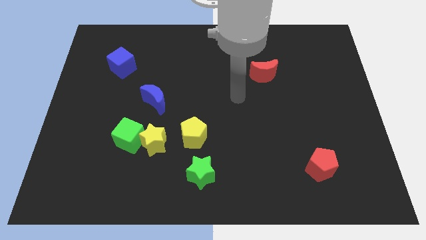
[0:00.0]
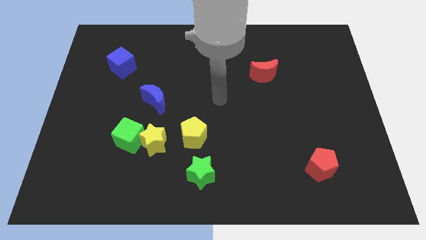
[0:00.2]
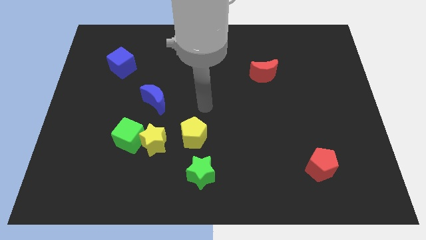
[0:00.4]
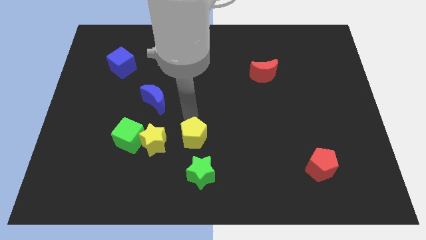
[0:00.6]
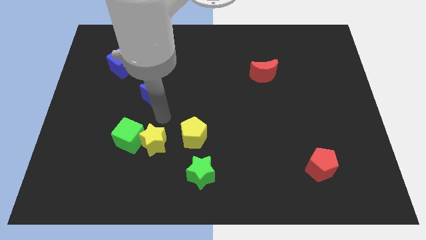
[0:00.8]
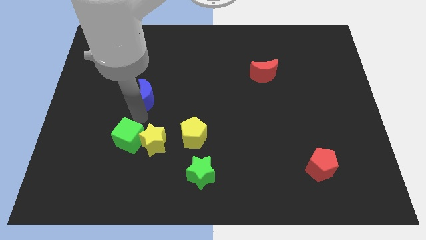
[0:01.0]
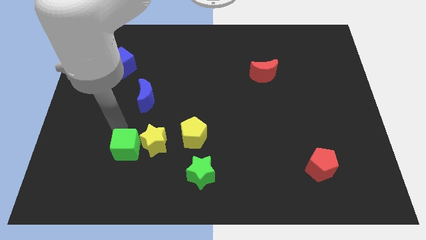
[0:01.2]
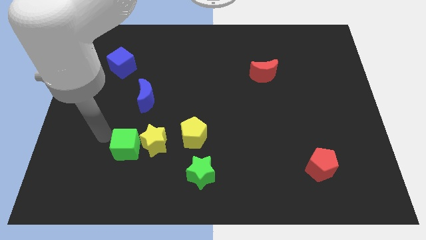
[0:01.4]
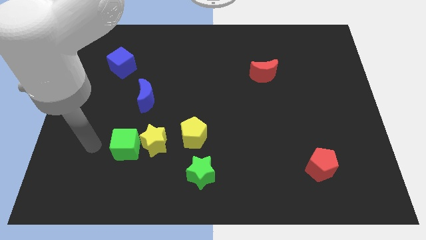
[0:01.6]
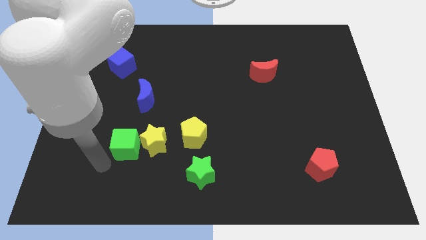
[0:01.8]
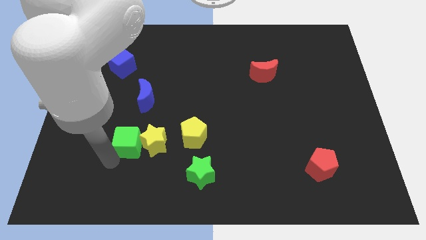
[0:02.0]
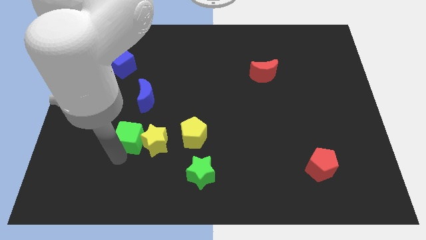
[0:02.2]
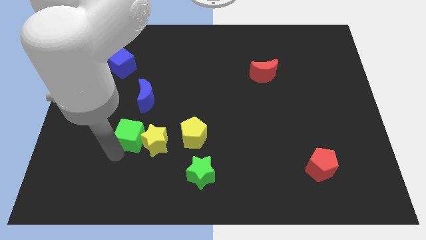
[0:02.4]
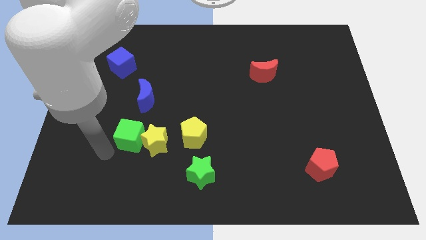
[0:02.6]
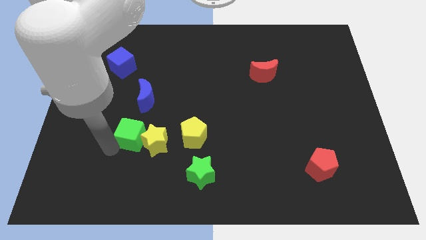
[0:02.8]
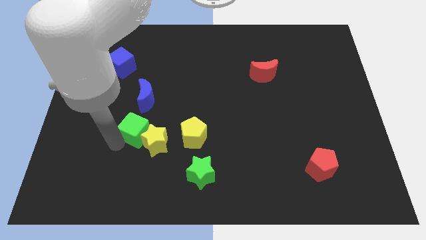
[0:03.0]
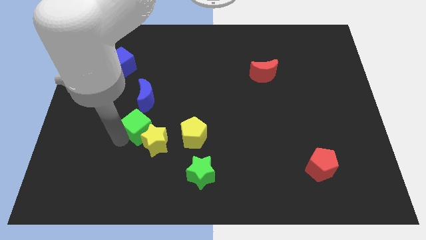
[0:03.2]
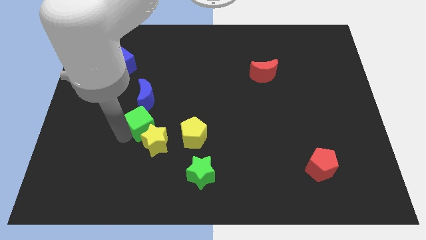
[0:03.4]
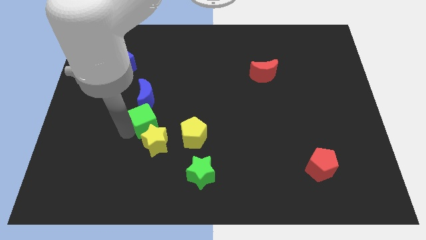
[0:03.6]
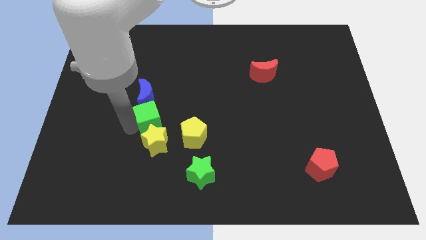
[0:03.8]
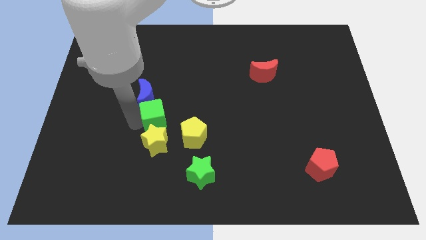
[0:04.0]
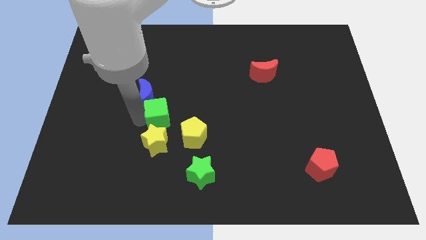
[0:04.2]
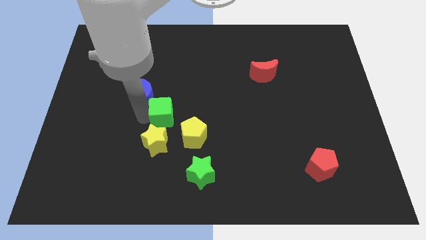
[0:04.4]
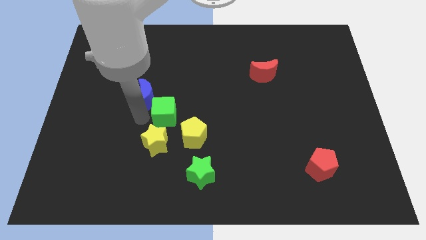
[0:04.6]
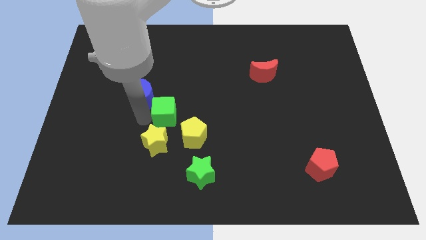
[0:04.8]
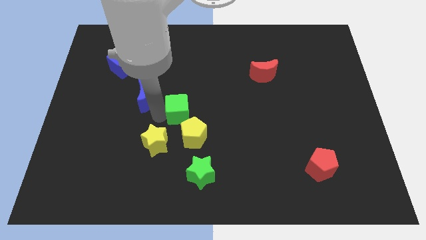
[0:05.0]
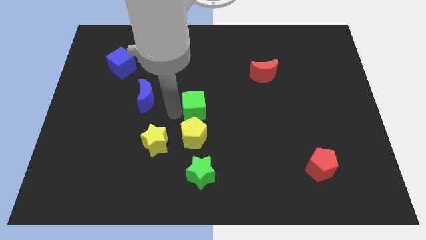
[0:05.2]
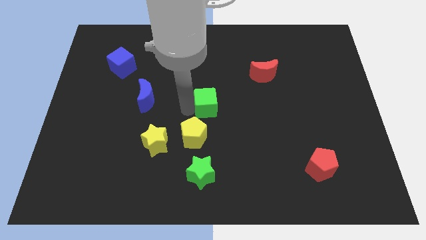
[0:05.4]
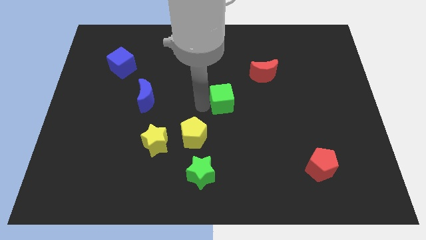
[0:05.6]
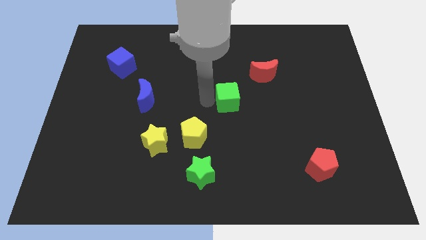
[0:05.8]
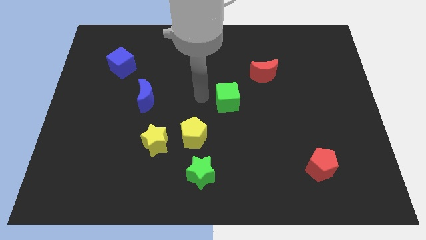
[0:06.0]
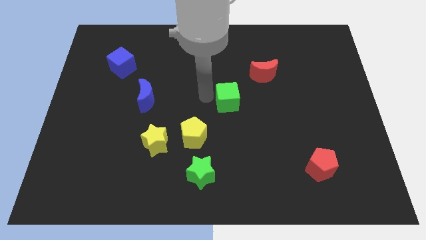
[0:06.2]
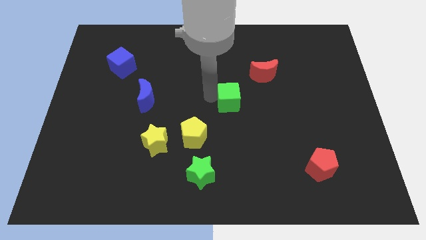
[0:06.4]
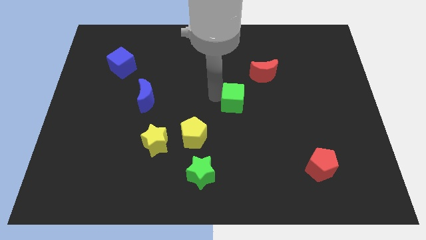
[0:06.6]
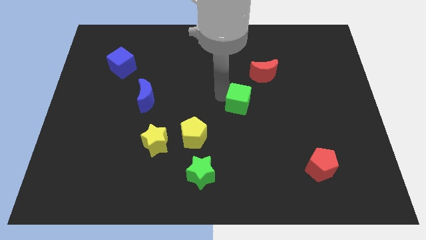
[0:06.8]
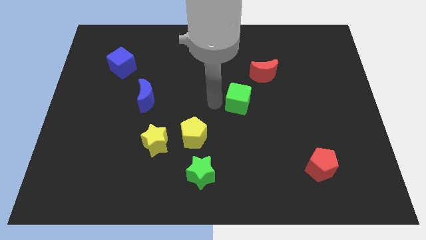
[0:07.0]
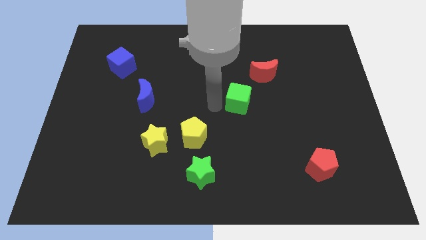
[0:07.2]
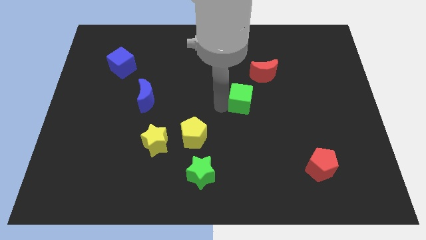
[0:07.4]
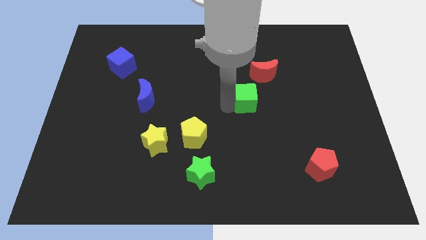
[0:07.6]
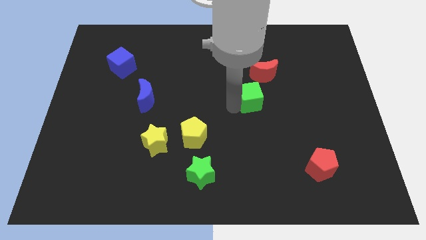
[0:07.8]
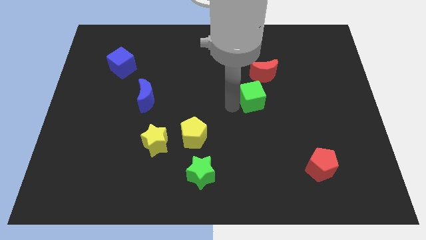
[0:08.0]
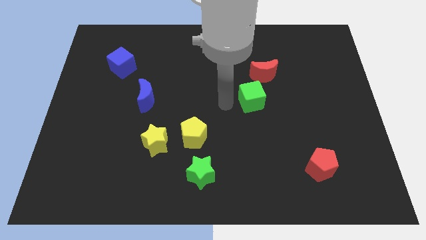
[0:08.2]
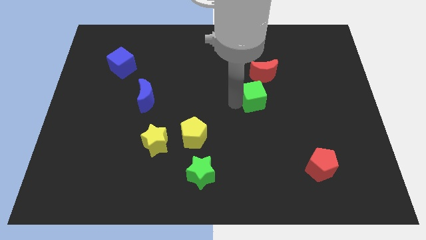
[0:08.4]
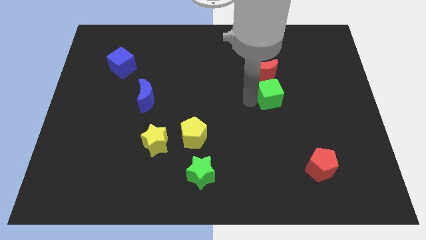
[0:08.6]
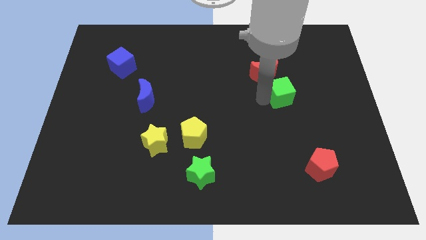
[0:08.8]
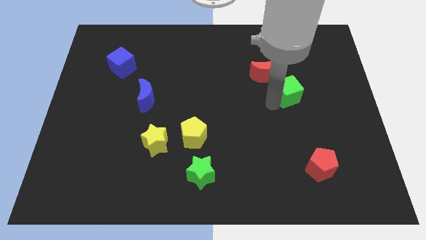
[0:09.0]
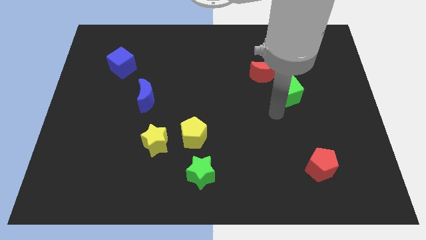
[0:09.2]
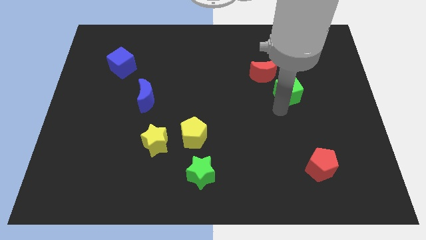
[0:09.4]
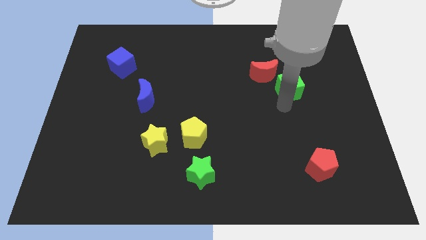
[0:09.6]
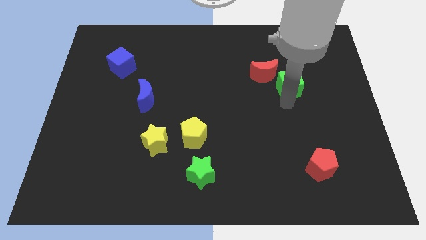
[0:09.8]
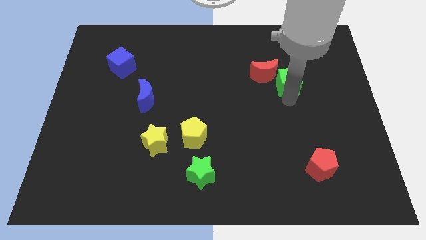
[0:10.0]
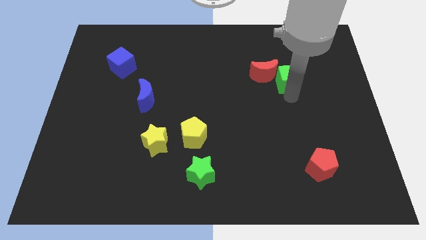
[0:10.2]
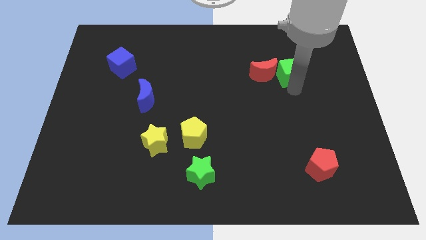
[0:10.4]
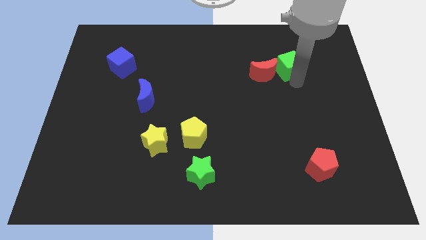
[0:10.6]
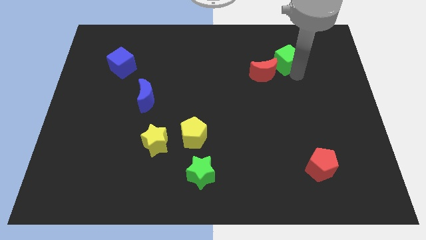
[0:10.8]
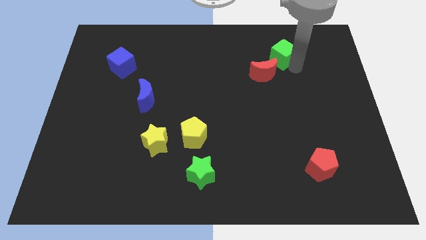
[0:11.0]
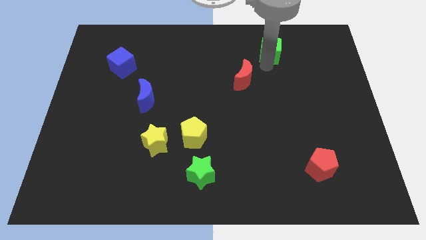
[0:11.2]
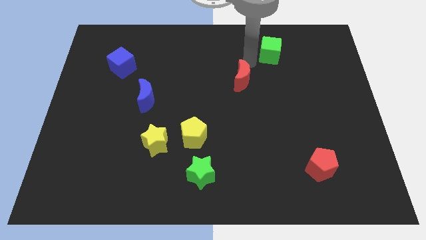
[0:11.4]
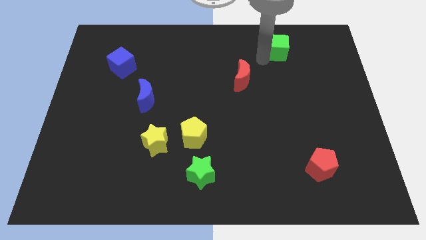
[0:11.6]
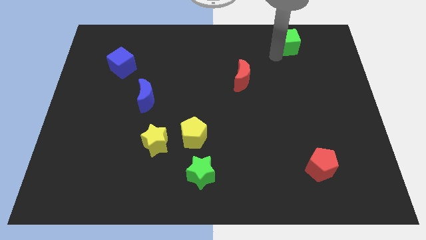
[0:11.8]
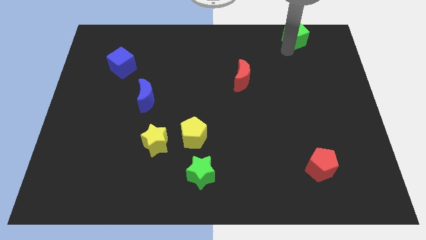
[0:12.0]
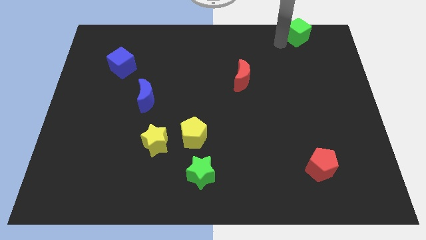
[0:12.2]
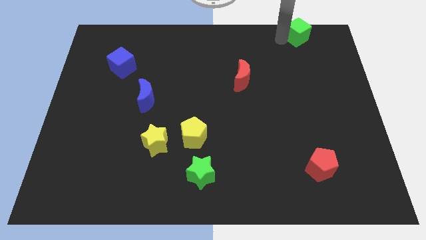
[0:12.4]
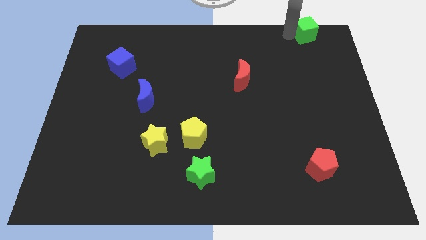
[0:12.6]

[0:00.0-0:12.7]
put the green cube to the top right of the board

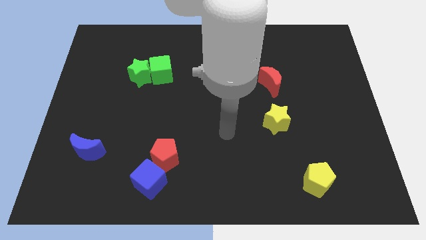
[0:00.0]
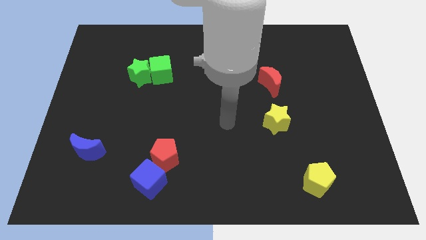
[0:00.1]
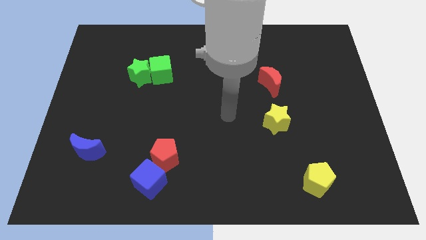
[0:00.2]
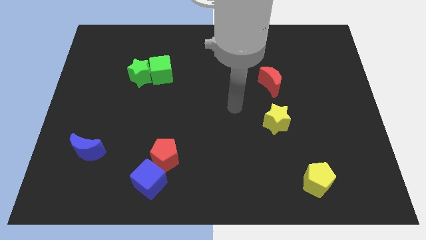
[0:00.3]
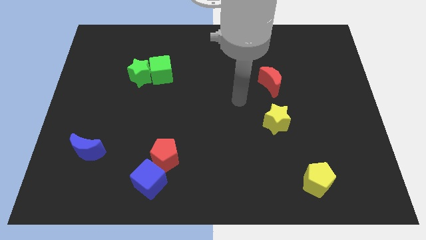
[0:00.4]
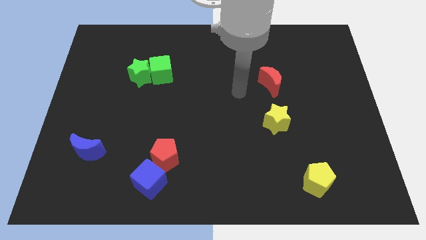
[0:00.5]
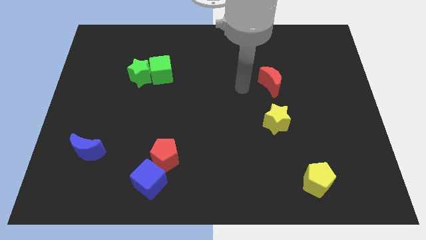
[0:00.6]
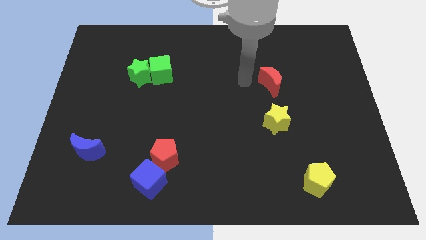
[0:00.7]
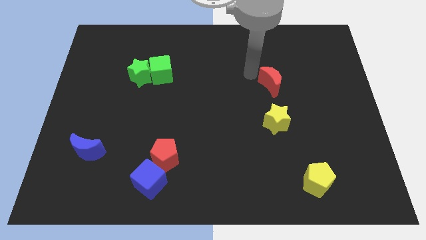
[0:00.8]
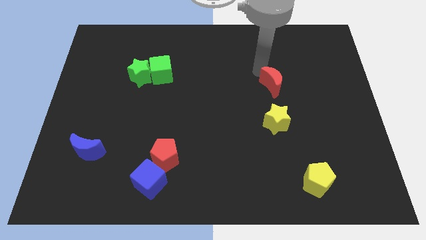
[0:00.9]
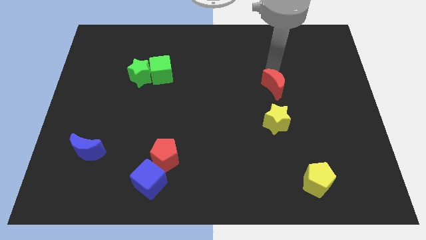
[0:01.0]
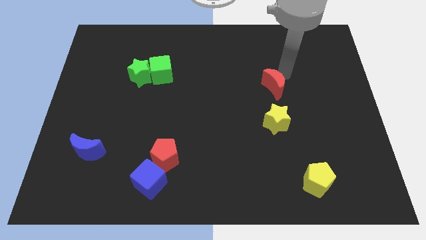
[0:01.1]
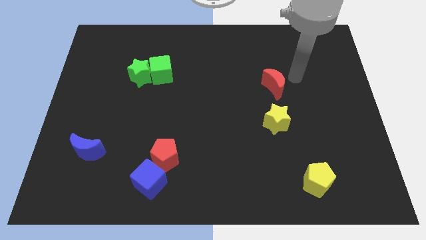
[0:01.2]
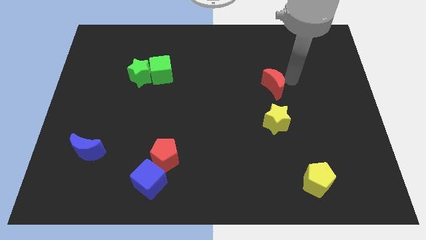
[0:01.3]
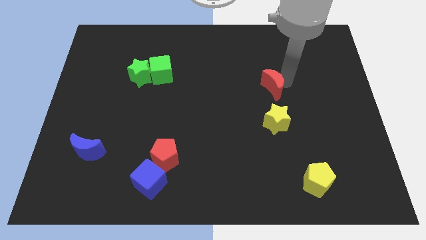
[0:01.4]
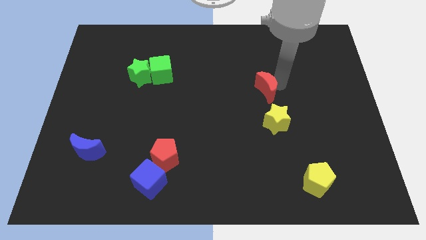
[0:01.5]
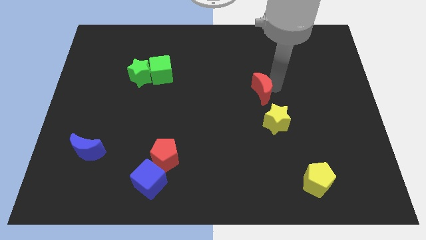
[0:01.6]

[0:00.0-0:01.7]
move the red moon to the middle of the board

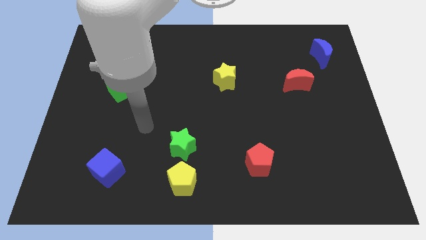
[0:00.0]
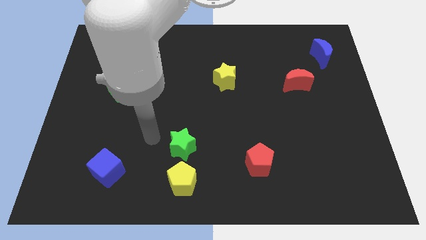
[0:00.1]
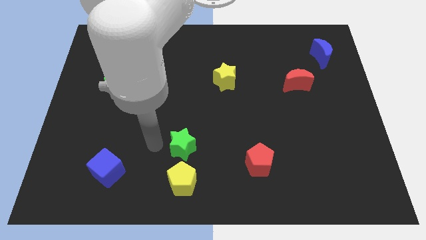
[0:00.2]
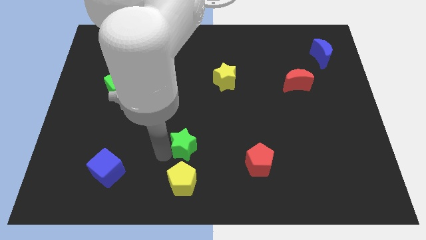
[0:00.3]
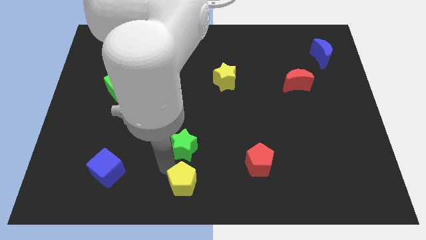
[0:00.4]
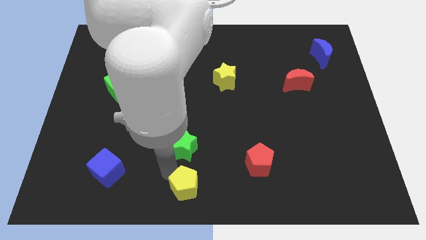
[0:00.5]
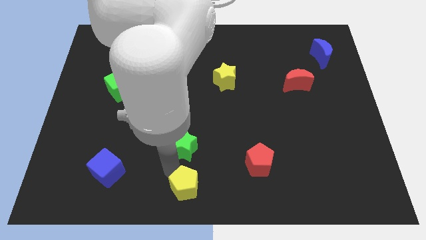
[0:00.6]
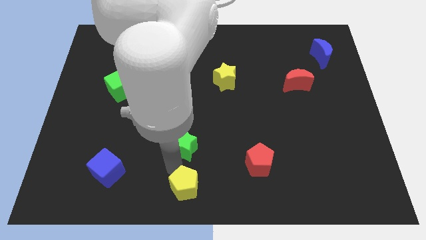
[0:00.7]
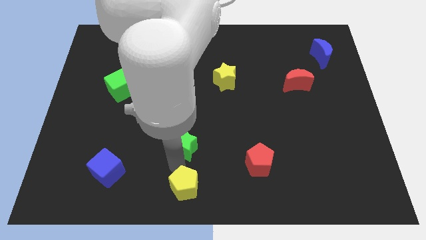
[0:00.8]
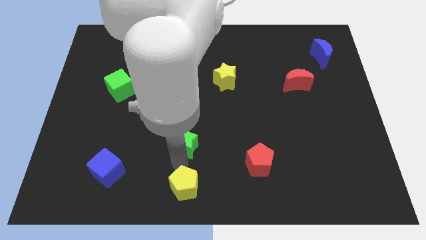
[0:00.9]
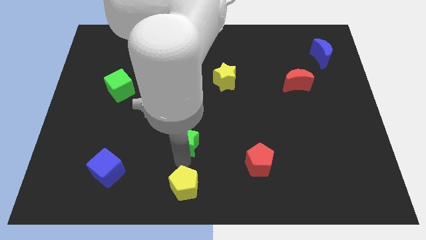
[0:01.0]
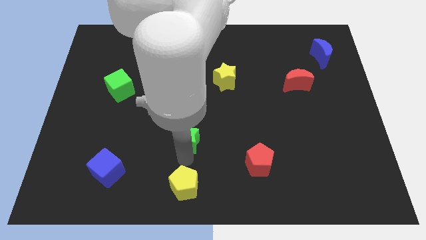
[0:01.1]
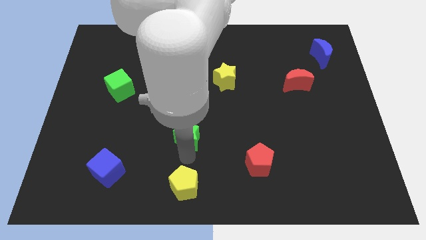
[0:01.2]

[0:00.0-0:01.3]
slide the green star to the center
